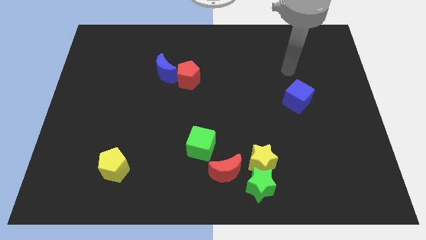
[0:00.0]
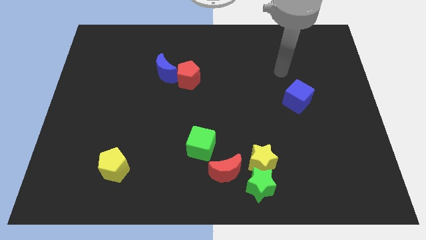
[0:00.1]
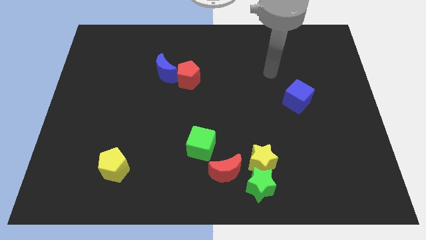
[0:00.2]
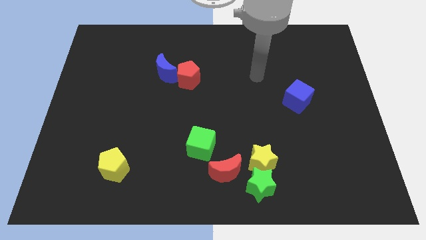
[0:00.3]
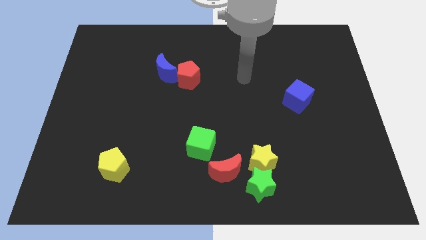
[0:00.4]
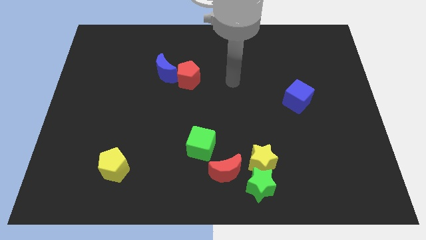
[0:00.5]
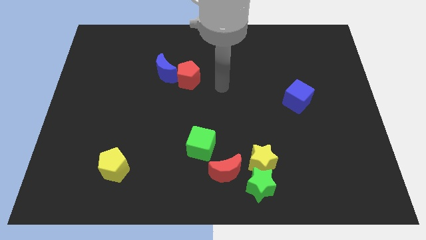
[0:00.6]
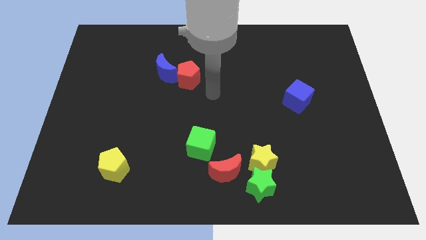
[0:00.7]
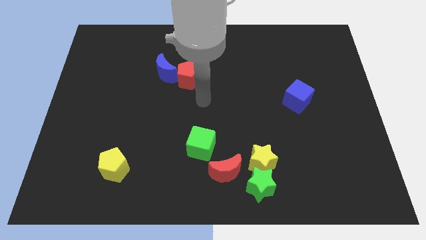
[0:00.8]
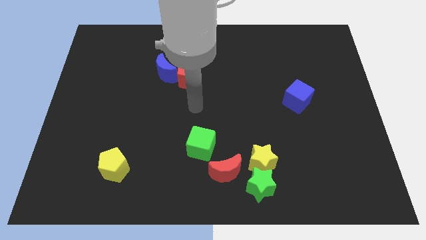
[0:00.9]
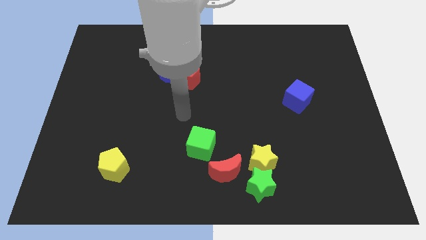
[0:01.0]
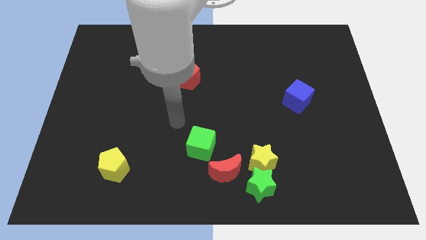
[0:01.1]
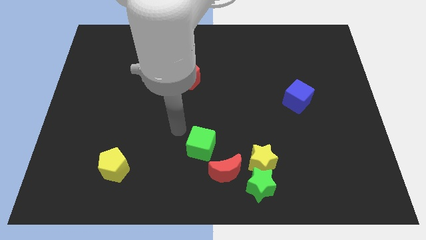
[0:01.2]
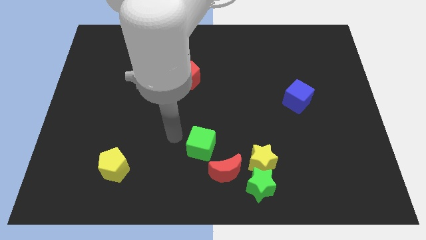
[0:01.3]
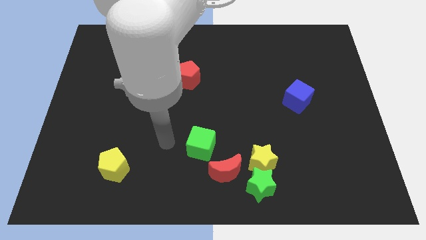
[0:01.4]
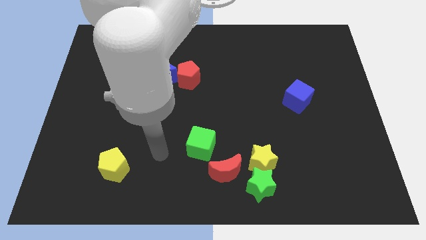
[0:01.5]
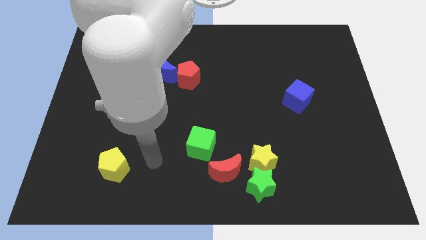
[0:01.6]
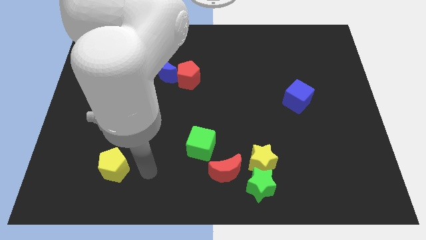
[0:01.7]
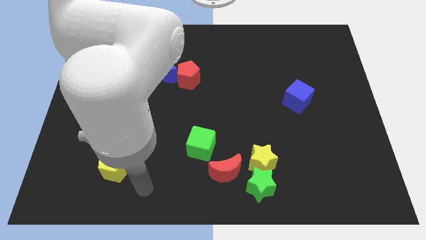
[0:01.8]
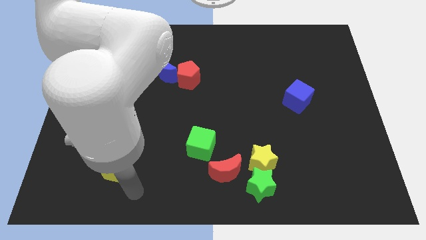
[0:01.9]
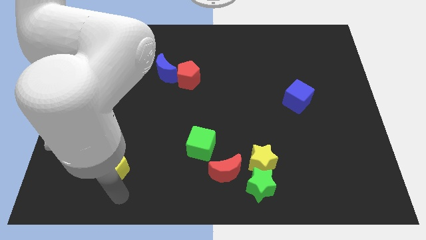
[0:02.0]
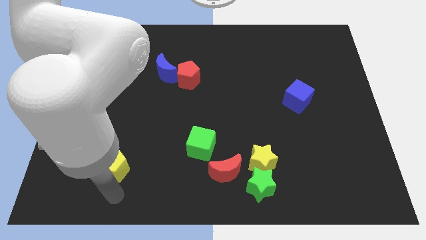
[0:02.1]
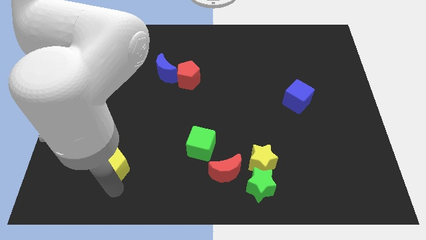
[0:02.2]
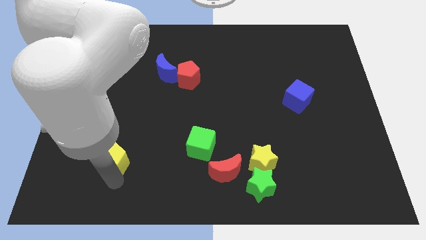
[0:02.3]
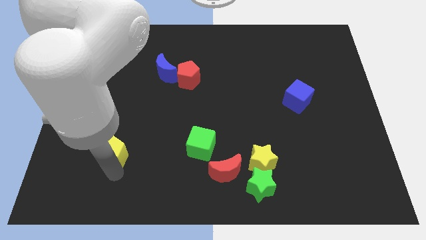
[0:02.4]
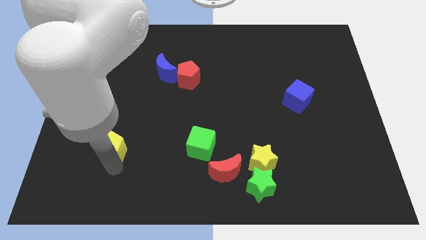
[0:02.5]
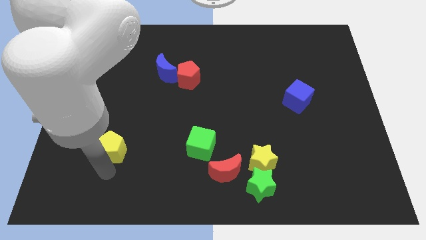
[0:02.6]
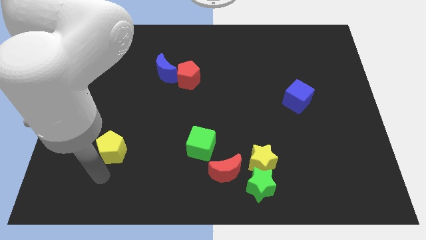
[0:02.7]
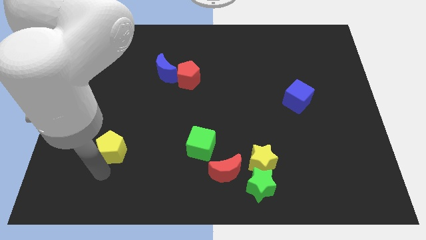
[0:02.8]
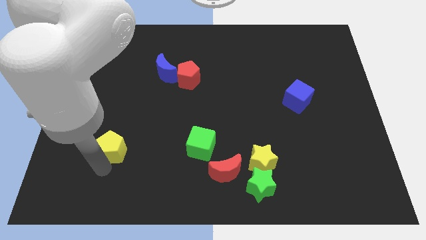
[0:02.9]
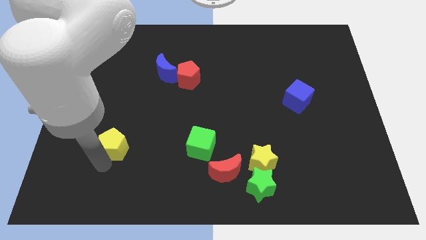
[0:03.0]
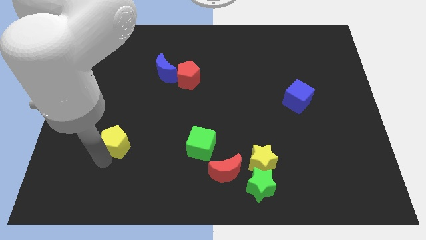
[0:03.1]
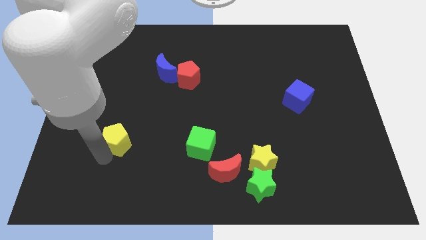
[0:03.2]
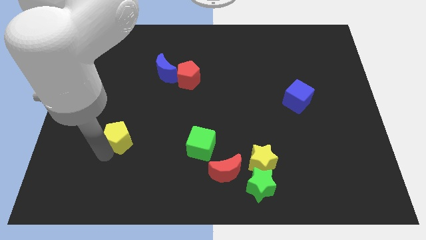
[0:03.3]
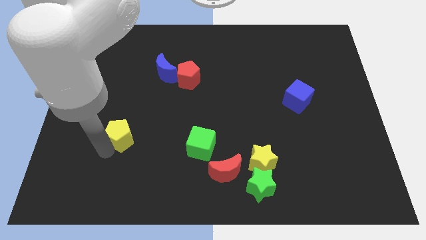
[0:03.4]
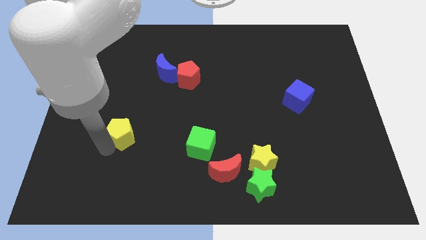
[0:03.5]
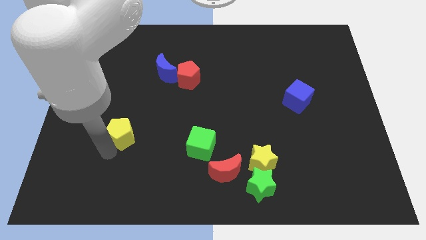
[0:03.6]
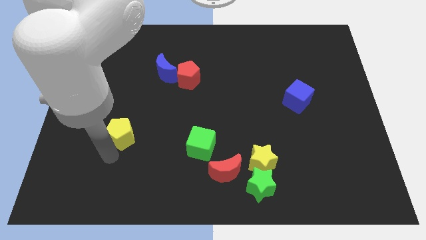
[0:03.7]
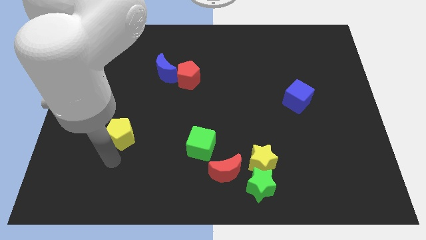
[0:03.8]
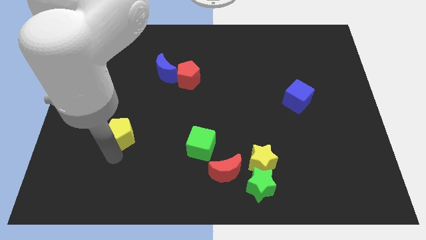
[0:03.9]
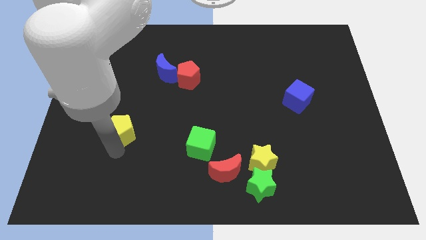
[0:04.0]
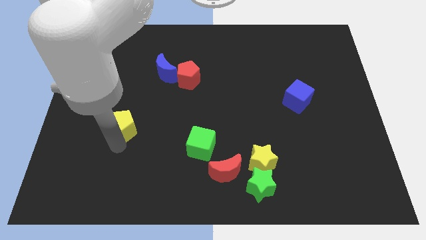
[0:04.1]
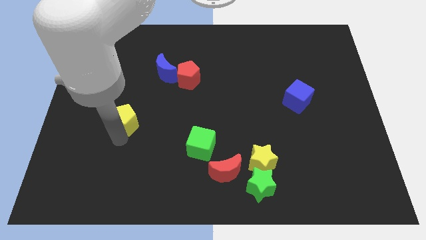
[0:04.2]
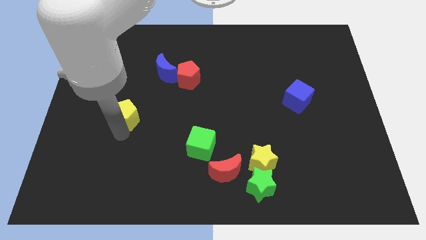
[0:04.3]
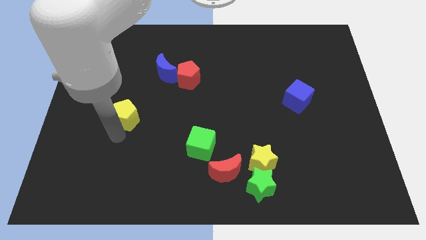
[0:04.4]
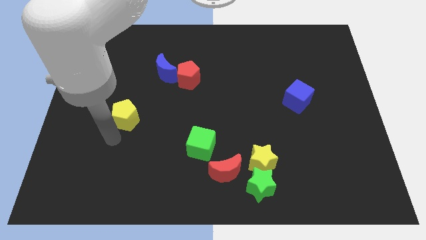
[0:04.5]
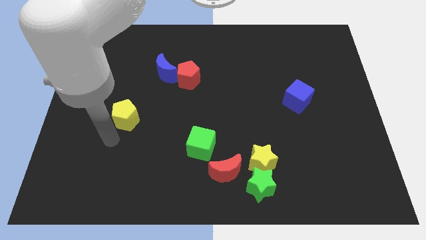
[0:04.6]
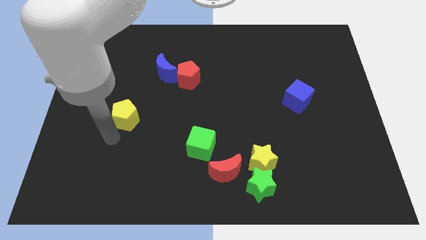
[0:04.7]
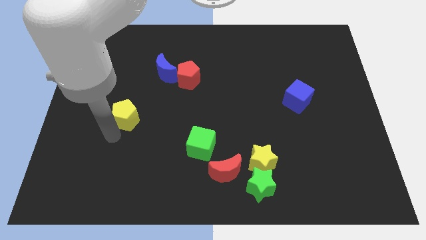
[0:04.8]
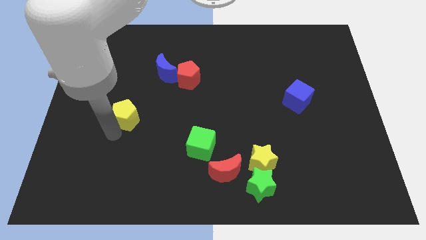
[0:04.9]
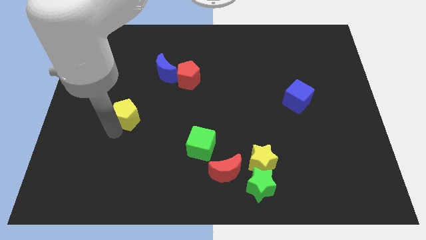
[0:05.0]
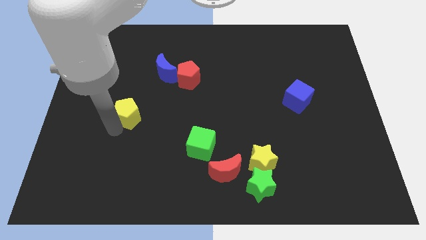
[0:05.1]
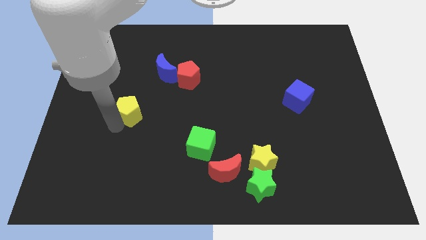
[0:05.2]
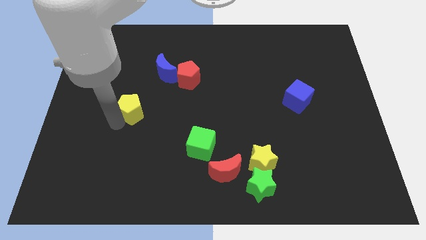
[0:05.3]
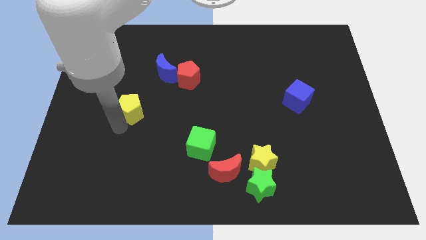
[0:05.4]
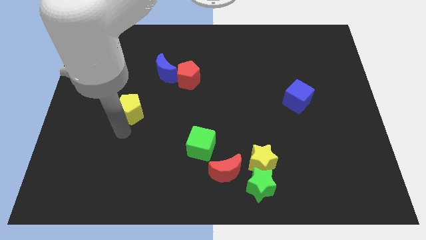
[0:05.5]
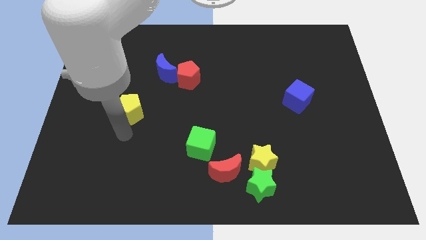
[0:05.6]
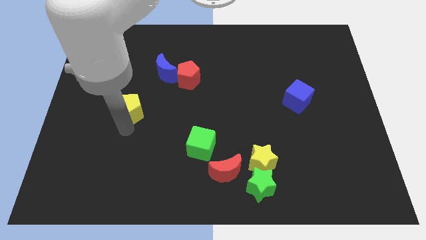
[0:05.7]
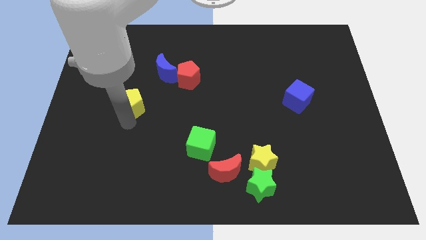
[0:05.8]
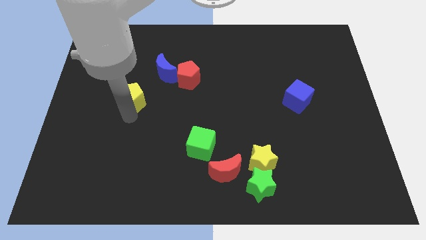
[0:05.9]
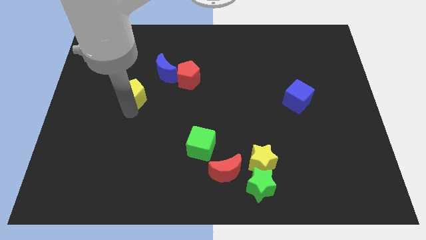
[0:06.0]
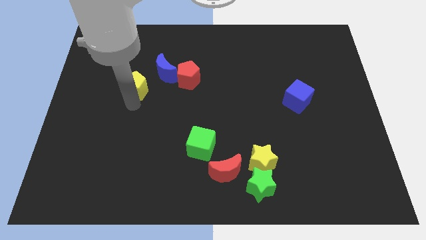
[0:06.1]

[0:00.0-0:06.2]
push the yellow pentagon up

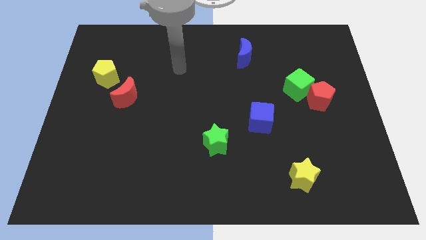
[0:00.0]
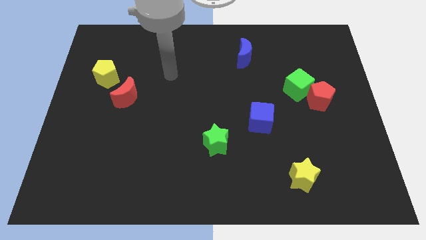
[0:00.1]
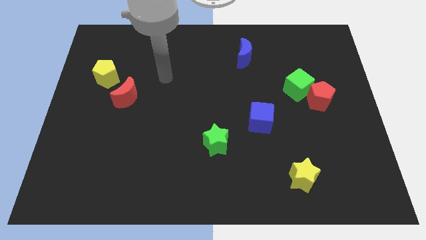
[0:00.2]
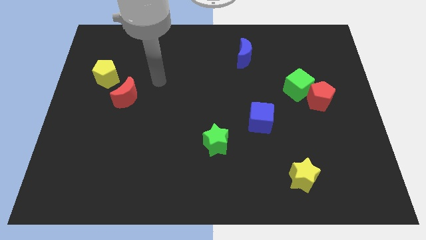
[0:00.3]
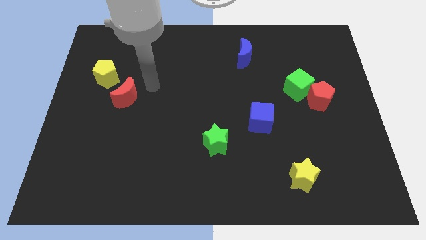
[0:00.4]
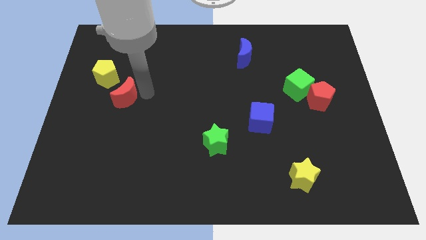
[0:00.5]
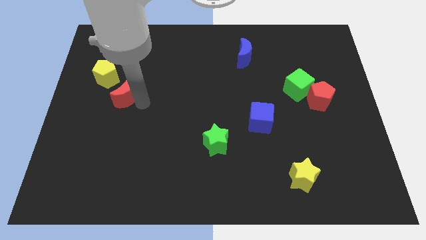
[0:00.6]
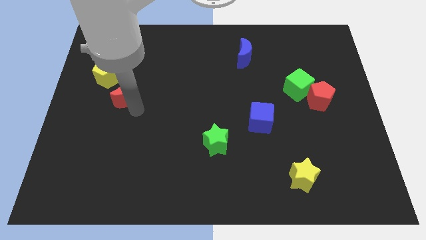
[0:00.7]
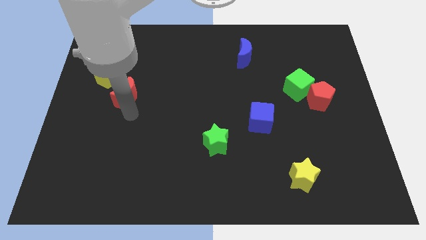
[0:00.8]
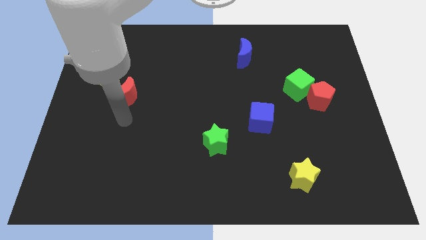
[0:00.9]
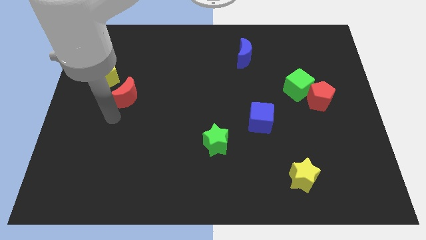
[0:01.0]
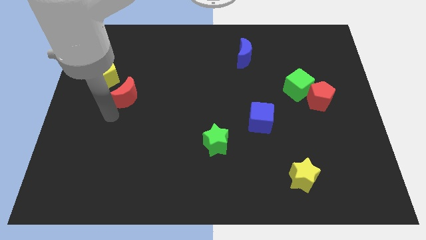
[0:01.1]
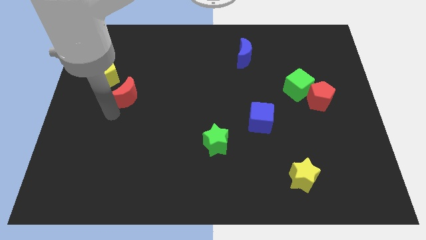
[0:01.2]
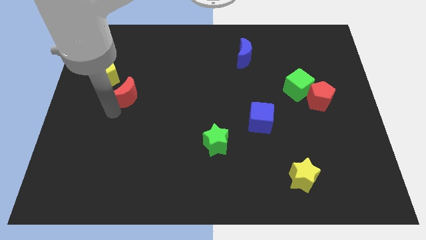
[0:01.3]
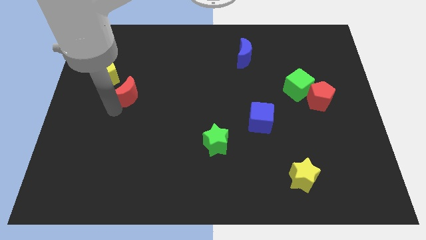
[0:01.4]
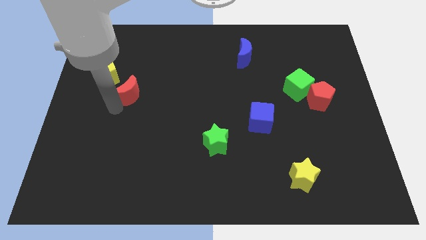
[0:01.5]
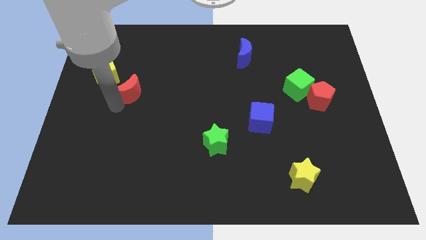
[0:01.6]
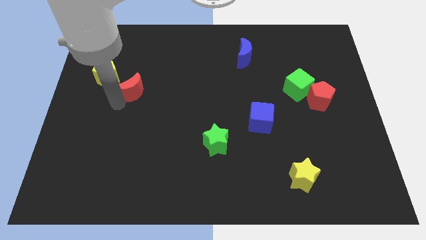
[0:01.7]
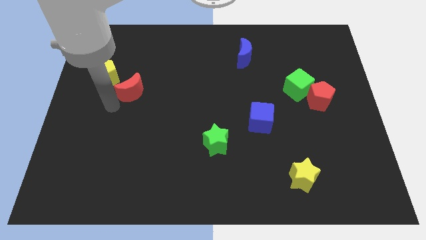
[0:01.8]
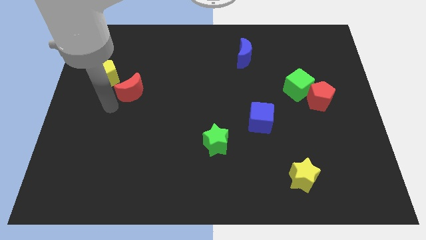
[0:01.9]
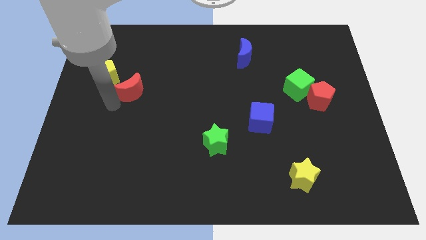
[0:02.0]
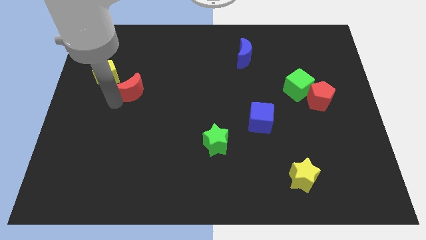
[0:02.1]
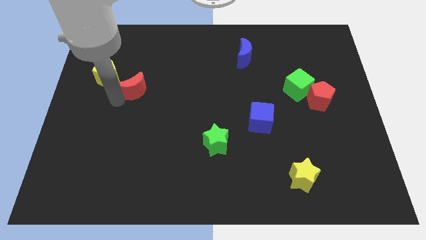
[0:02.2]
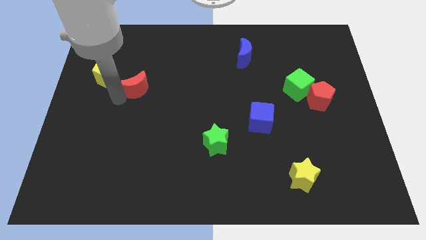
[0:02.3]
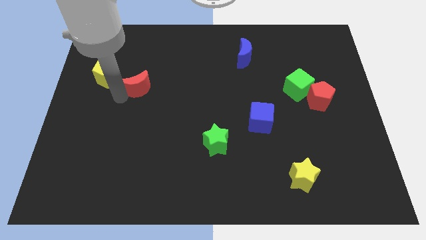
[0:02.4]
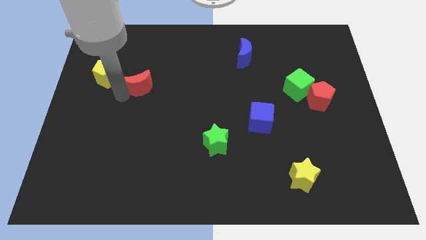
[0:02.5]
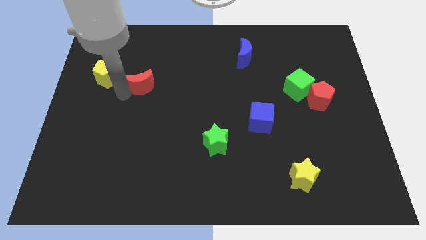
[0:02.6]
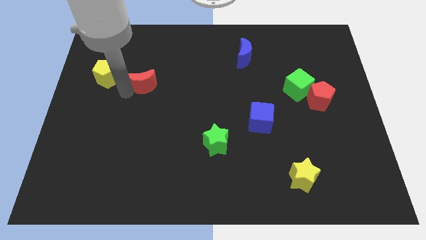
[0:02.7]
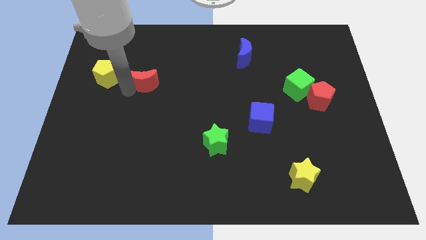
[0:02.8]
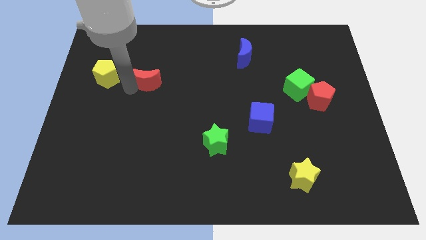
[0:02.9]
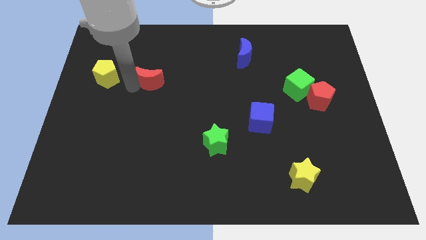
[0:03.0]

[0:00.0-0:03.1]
move the red moon up and right diagonally a bit
